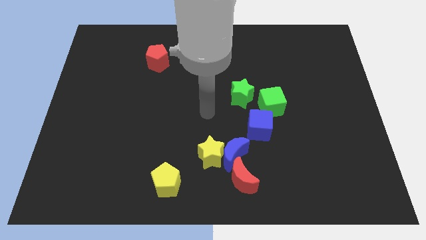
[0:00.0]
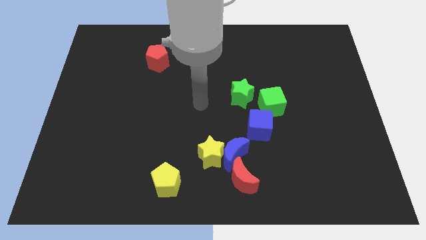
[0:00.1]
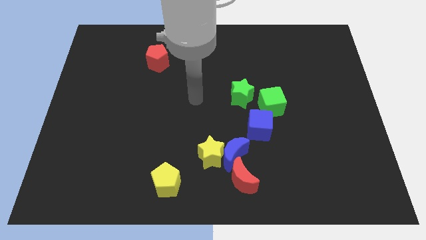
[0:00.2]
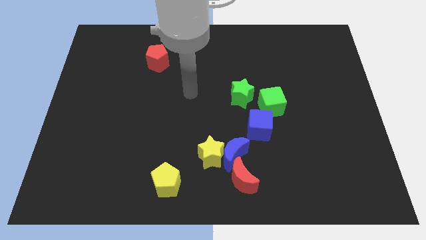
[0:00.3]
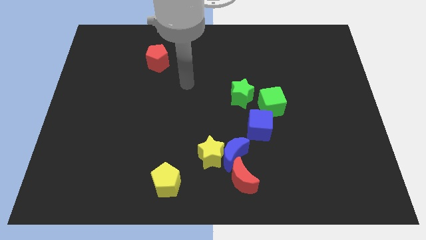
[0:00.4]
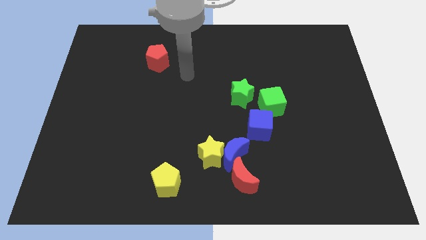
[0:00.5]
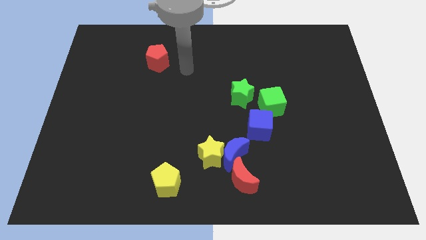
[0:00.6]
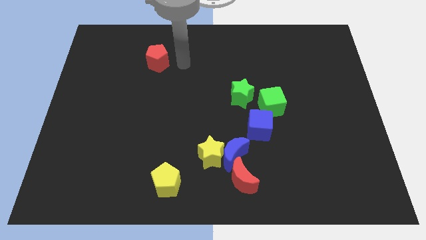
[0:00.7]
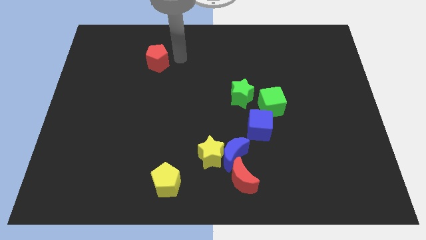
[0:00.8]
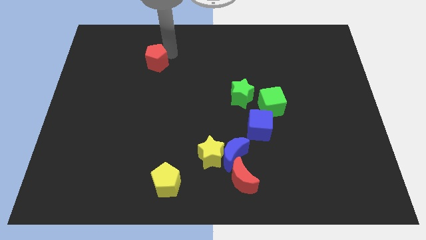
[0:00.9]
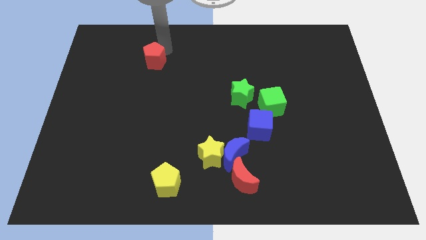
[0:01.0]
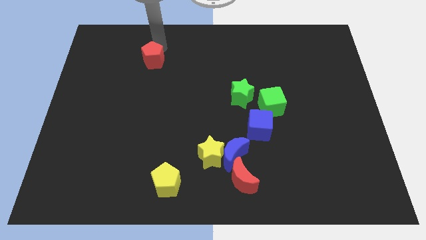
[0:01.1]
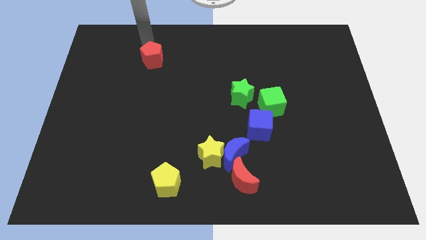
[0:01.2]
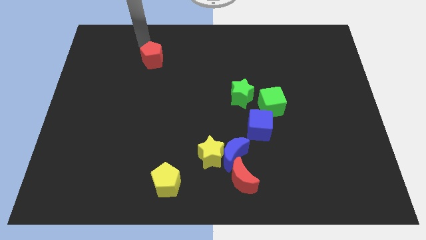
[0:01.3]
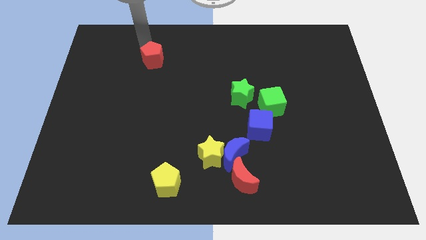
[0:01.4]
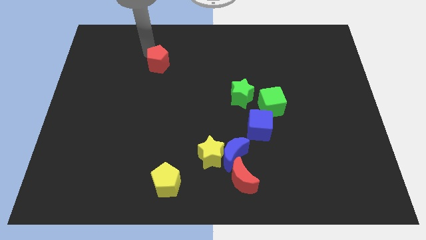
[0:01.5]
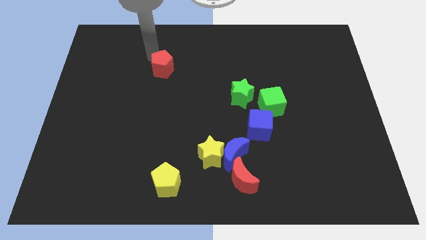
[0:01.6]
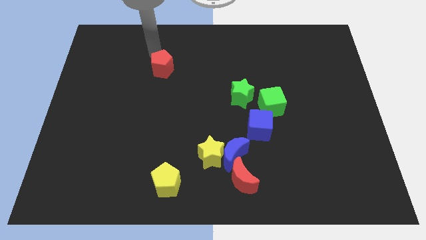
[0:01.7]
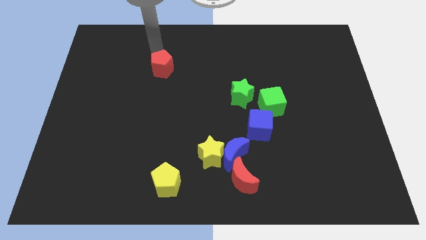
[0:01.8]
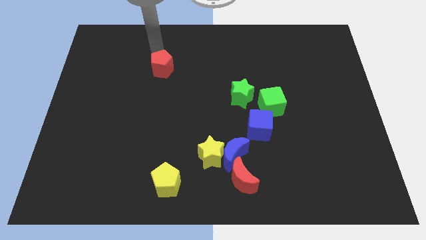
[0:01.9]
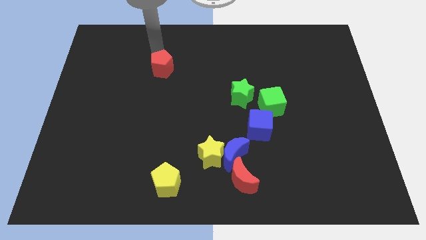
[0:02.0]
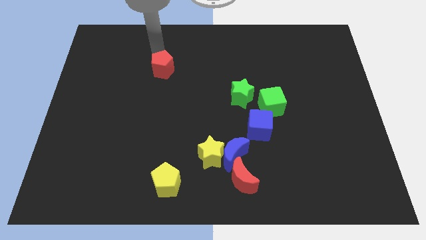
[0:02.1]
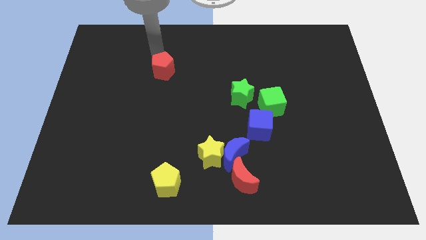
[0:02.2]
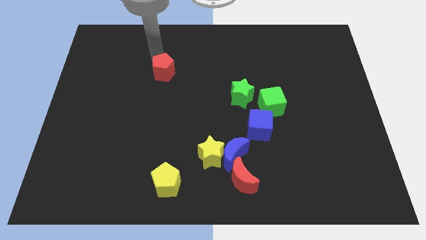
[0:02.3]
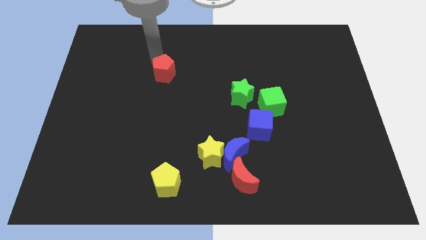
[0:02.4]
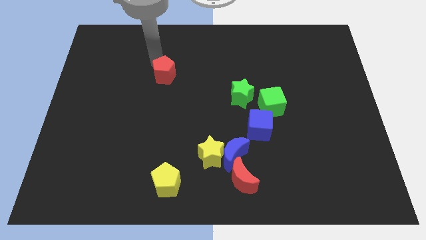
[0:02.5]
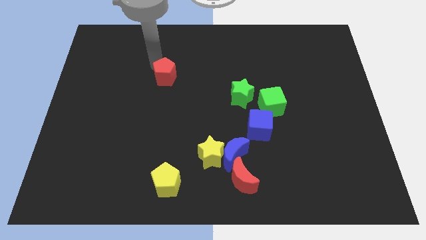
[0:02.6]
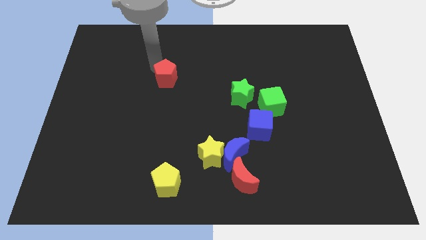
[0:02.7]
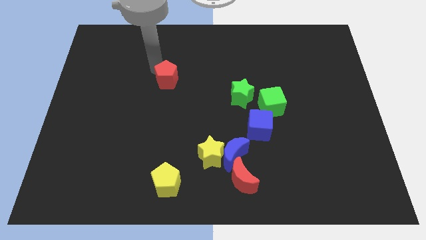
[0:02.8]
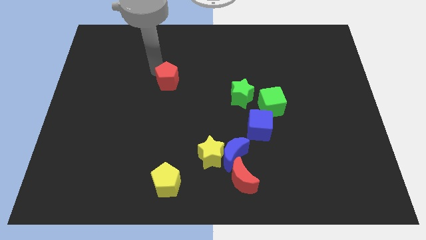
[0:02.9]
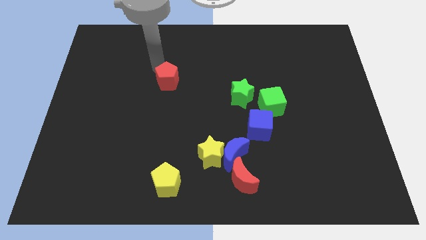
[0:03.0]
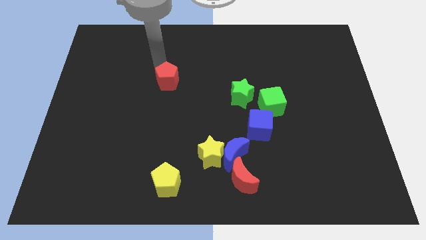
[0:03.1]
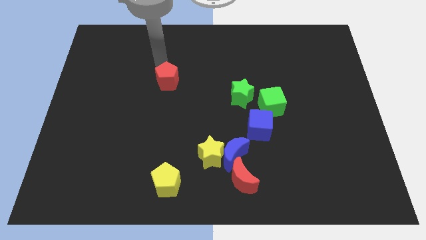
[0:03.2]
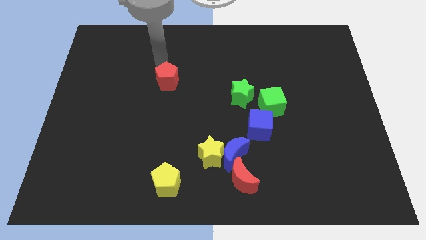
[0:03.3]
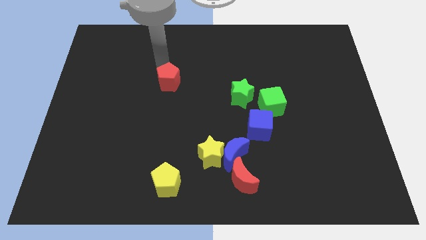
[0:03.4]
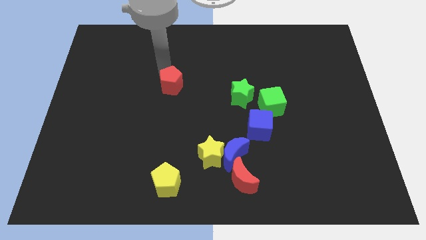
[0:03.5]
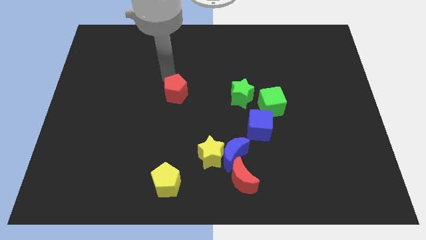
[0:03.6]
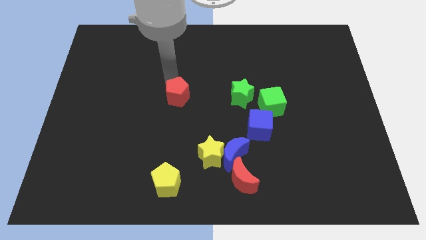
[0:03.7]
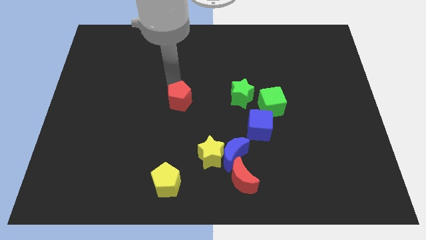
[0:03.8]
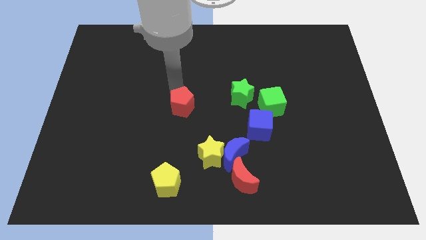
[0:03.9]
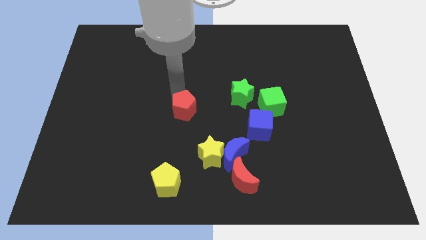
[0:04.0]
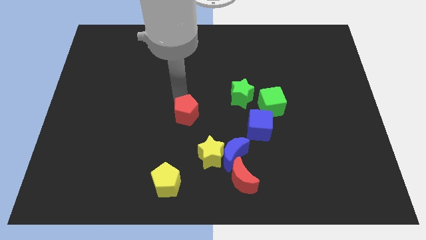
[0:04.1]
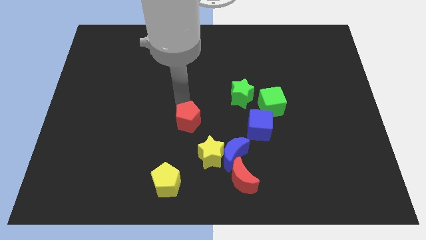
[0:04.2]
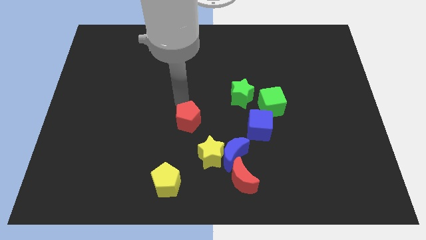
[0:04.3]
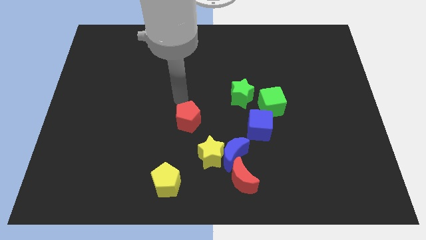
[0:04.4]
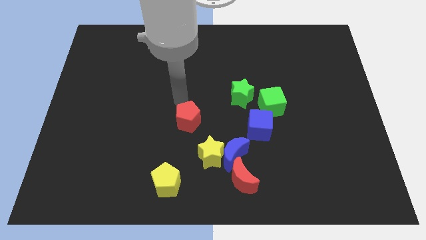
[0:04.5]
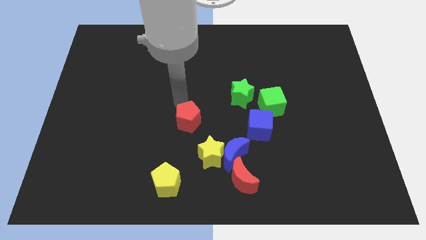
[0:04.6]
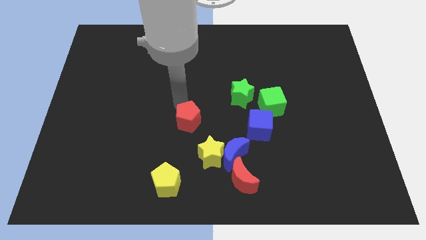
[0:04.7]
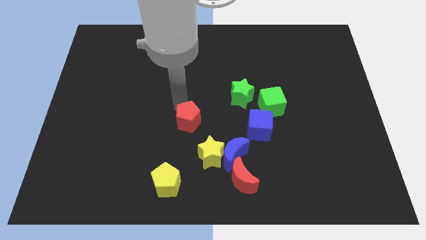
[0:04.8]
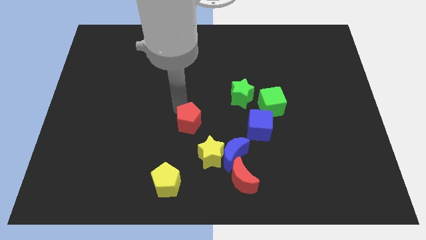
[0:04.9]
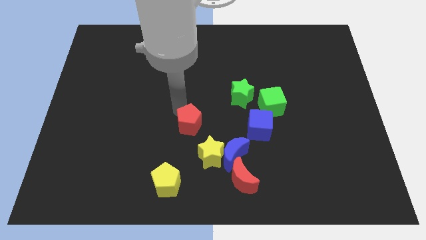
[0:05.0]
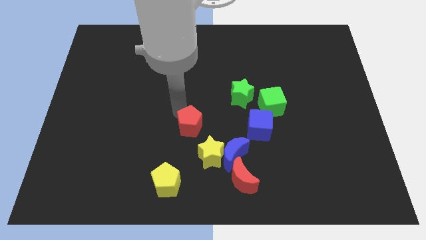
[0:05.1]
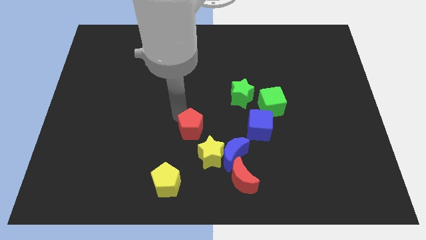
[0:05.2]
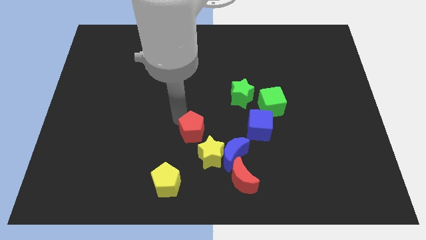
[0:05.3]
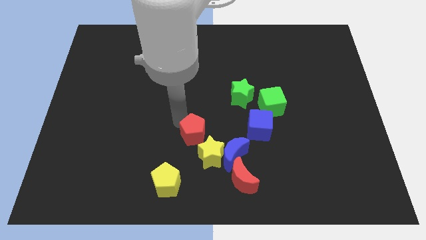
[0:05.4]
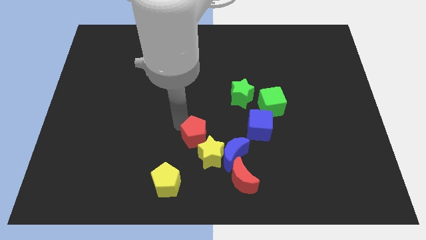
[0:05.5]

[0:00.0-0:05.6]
put the red pentagon to the yellow star

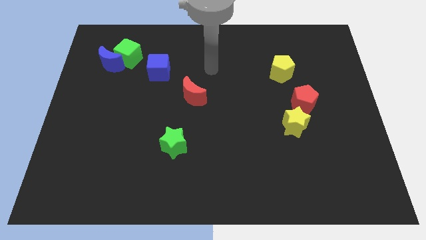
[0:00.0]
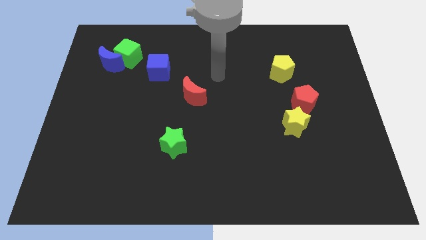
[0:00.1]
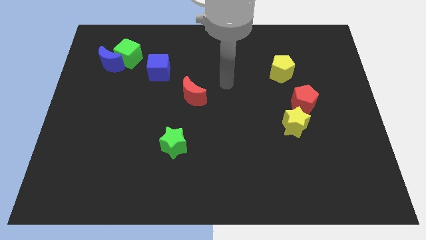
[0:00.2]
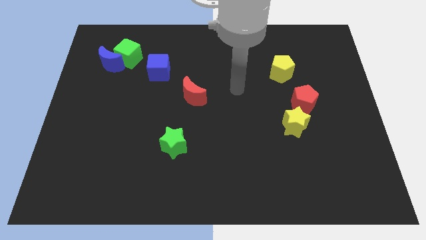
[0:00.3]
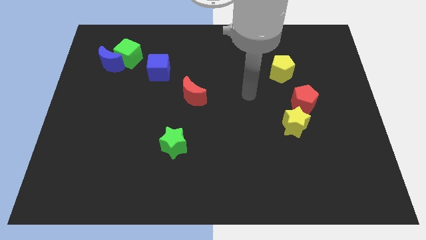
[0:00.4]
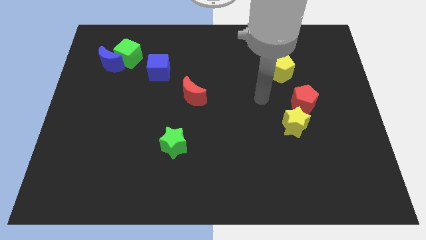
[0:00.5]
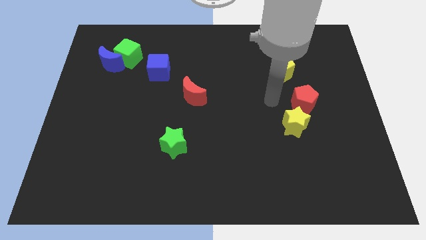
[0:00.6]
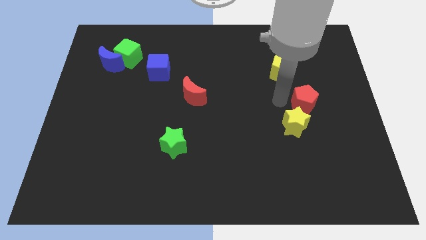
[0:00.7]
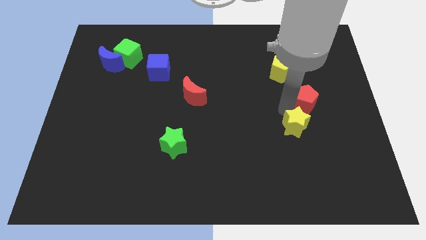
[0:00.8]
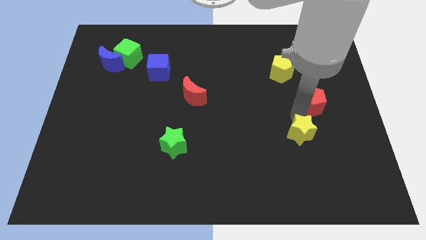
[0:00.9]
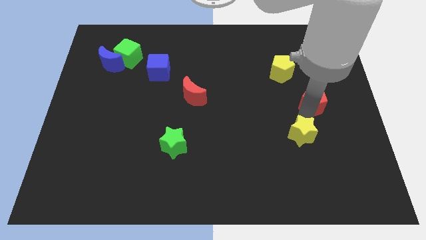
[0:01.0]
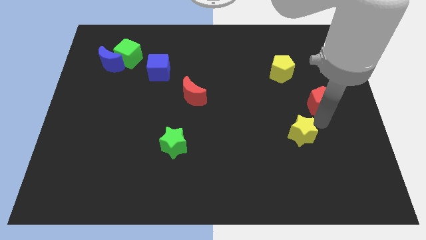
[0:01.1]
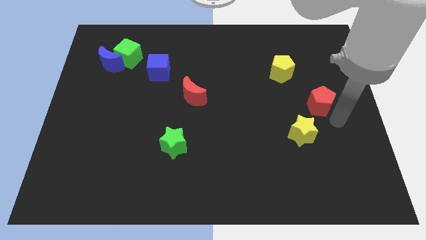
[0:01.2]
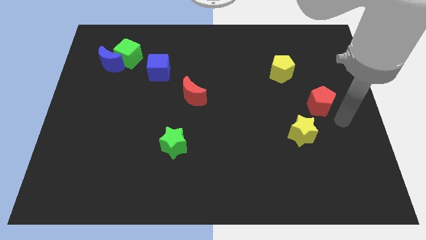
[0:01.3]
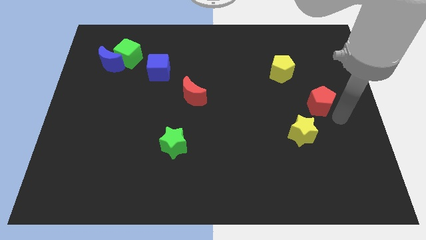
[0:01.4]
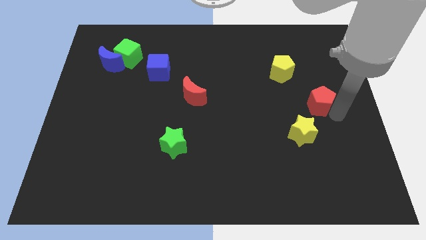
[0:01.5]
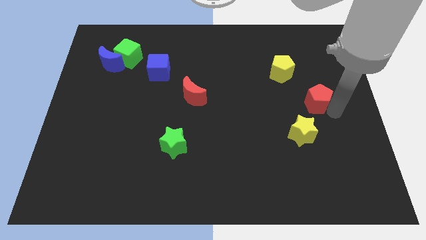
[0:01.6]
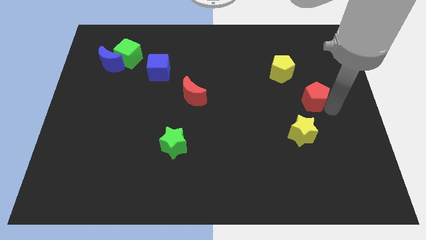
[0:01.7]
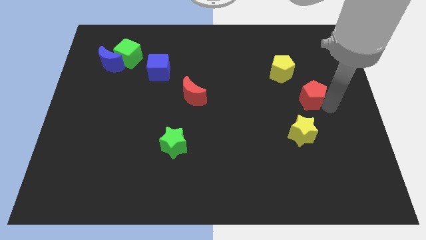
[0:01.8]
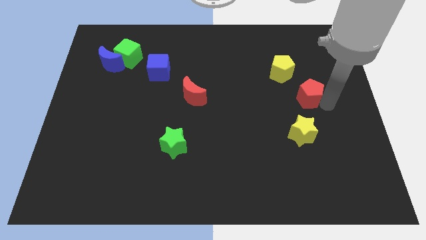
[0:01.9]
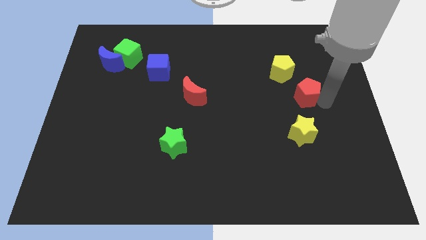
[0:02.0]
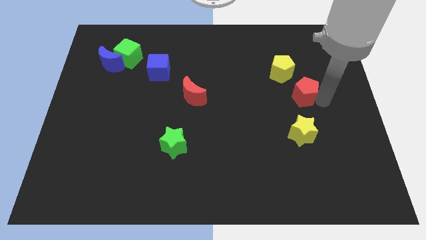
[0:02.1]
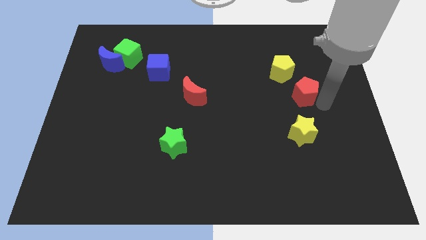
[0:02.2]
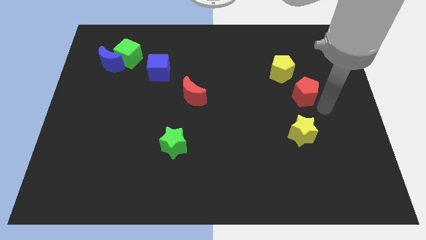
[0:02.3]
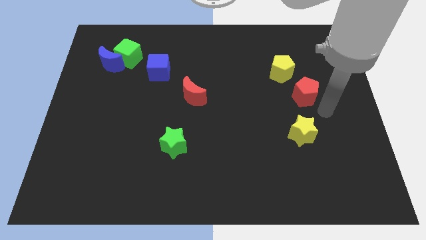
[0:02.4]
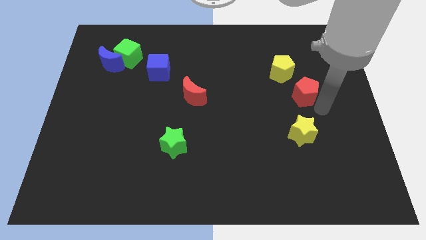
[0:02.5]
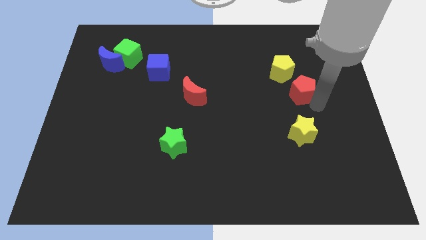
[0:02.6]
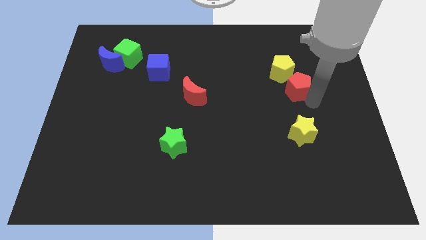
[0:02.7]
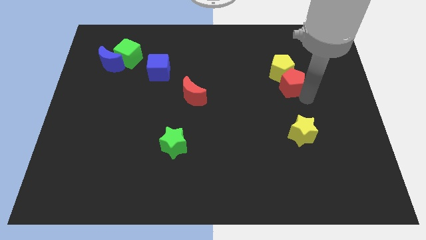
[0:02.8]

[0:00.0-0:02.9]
move the red pentagon towards the yellow pentagon
